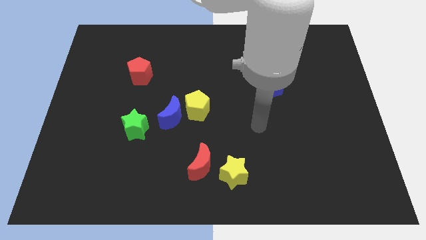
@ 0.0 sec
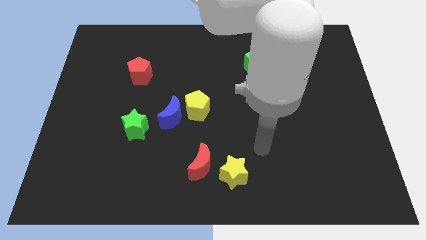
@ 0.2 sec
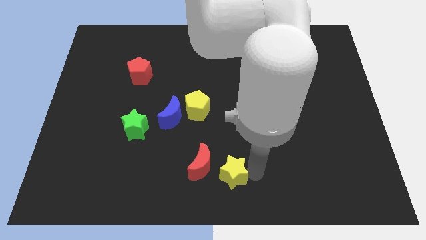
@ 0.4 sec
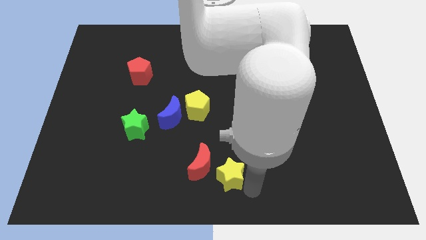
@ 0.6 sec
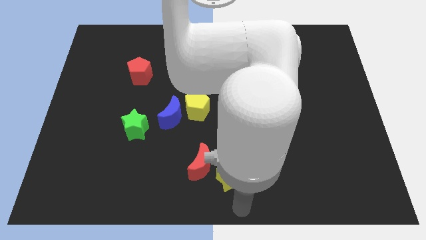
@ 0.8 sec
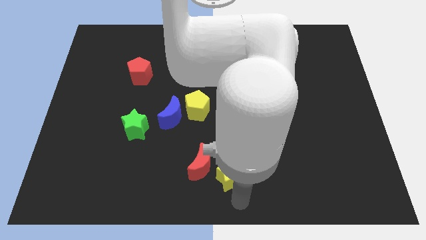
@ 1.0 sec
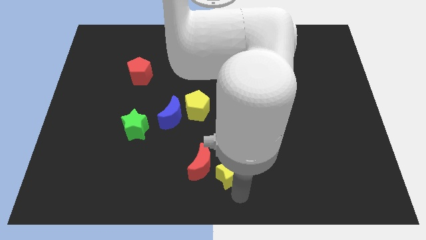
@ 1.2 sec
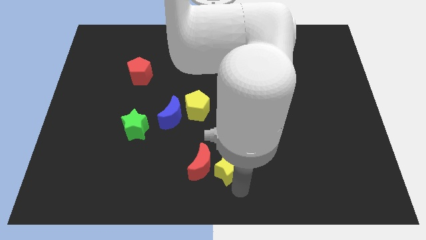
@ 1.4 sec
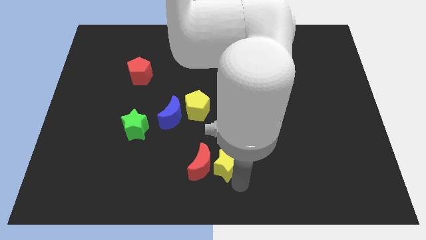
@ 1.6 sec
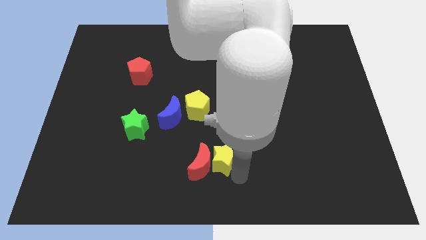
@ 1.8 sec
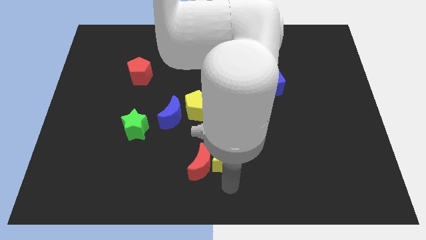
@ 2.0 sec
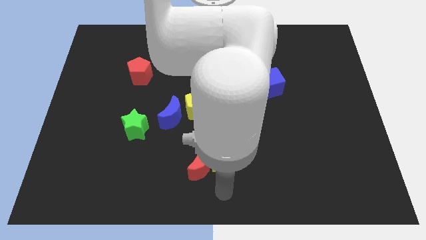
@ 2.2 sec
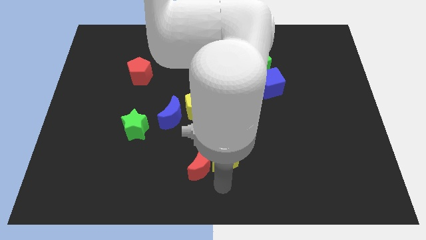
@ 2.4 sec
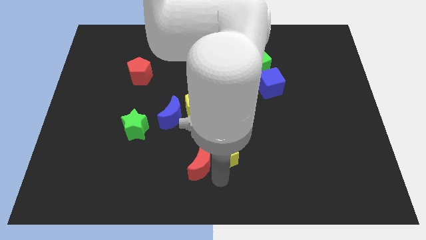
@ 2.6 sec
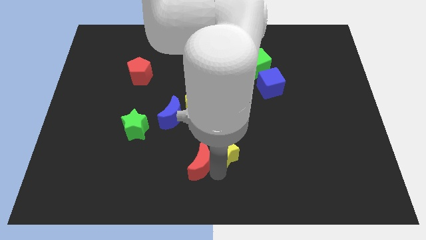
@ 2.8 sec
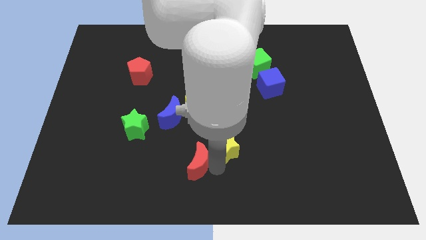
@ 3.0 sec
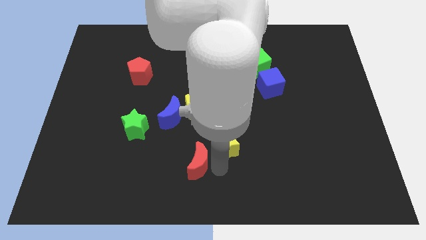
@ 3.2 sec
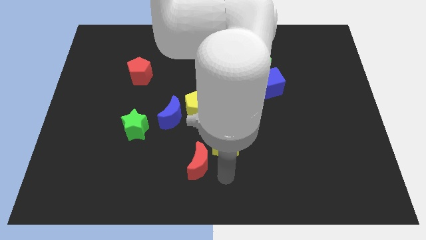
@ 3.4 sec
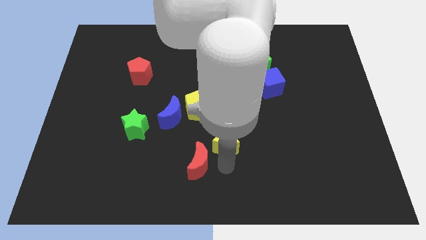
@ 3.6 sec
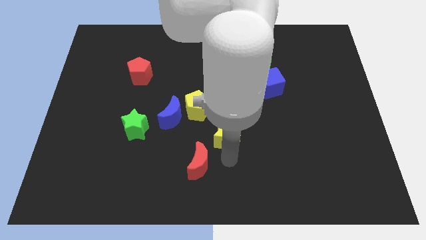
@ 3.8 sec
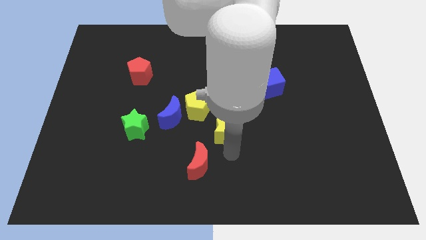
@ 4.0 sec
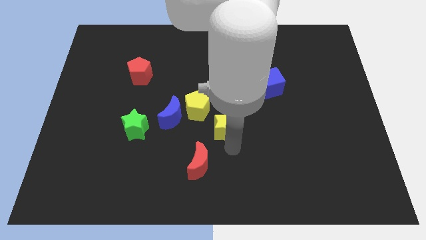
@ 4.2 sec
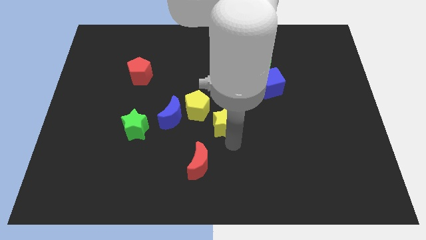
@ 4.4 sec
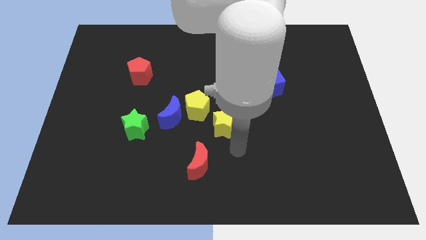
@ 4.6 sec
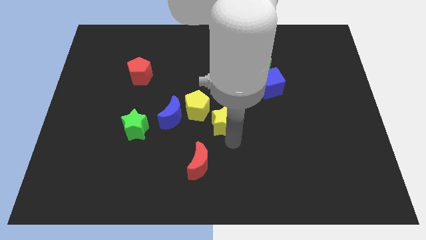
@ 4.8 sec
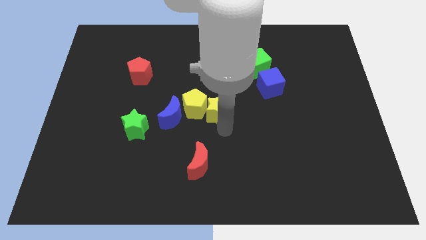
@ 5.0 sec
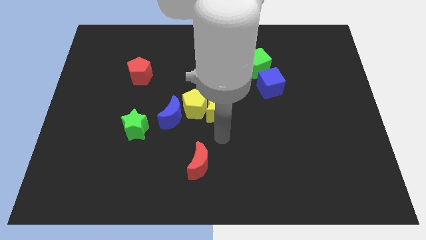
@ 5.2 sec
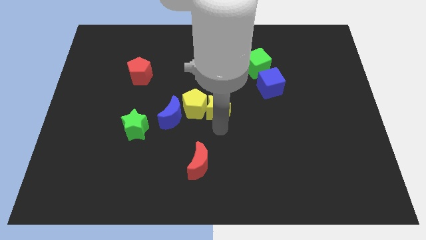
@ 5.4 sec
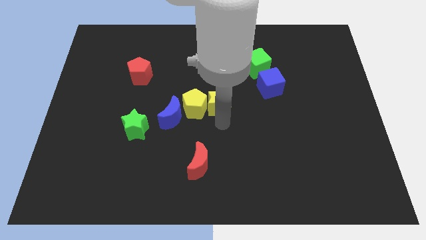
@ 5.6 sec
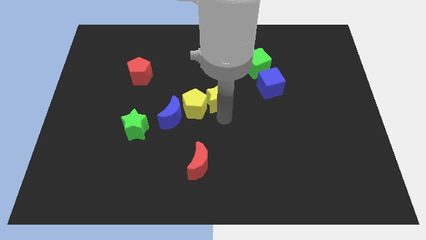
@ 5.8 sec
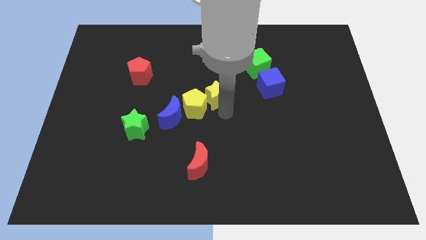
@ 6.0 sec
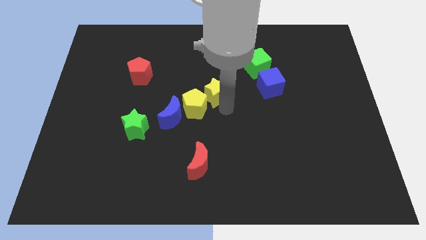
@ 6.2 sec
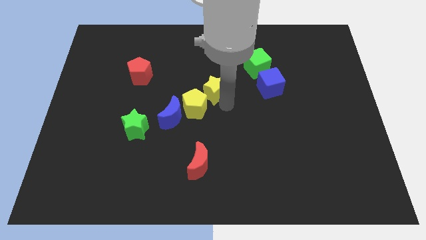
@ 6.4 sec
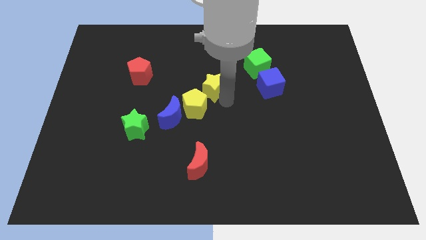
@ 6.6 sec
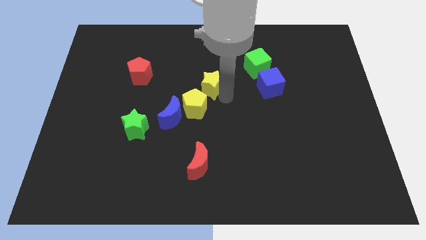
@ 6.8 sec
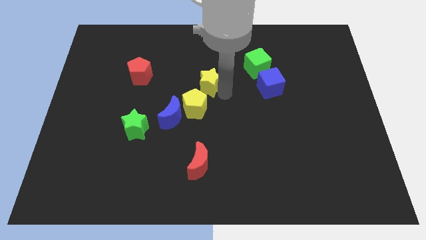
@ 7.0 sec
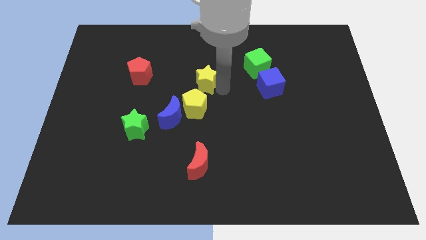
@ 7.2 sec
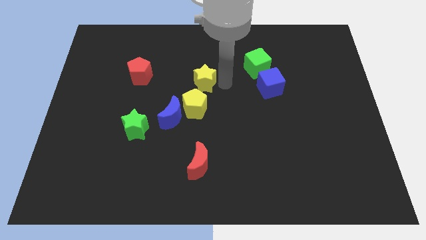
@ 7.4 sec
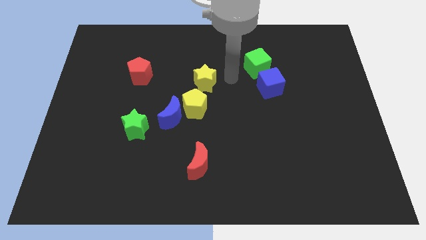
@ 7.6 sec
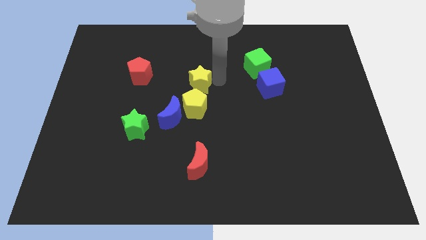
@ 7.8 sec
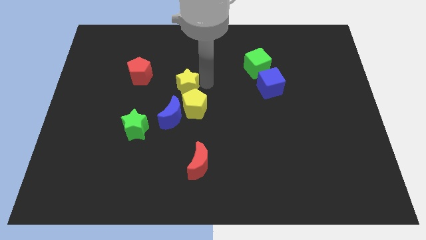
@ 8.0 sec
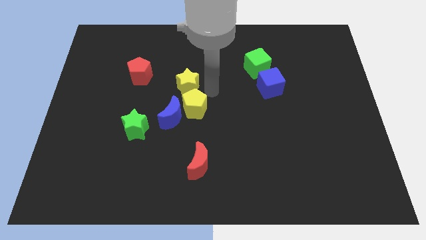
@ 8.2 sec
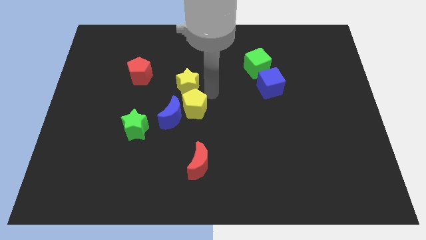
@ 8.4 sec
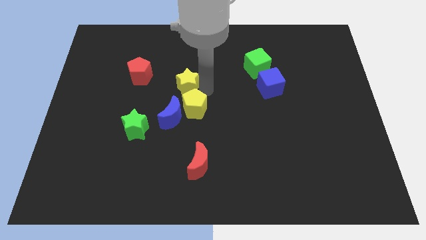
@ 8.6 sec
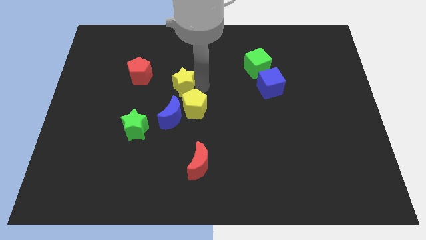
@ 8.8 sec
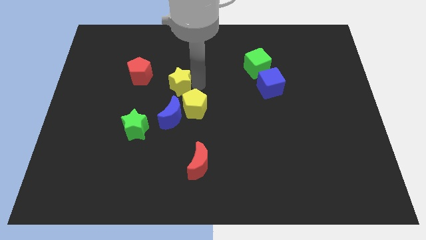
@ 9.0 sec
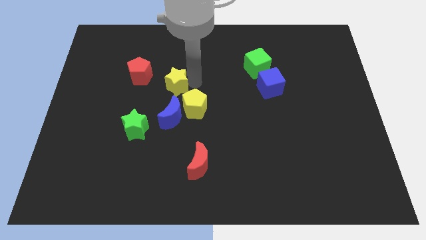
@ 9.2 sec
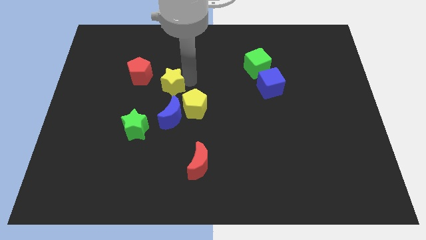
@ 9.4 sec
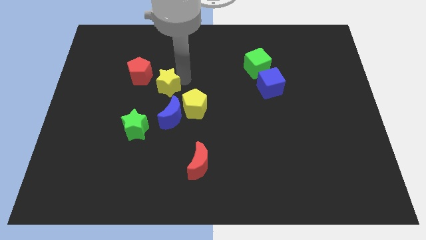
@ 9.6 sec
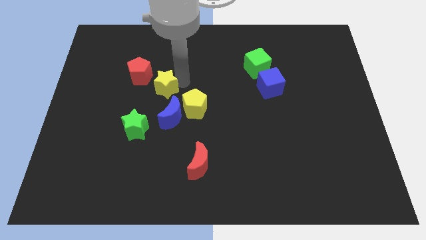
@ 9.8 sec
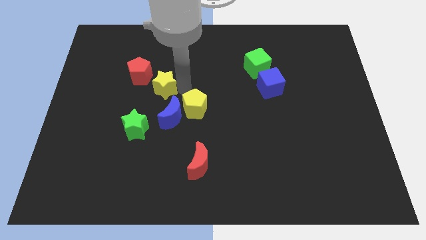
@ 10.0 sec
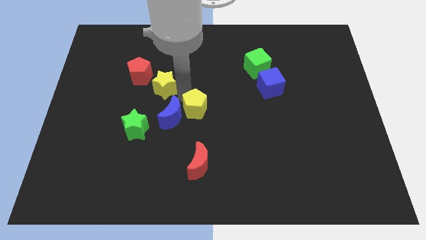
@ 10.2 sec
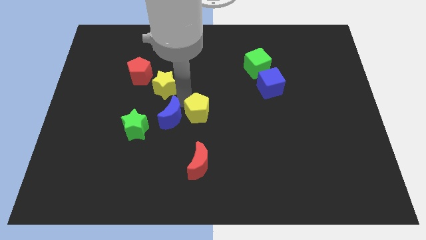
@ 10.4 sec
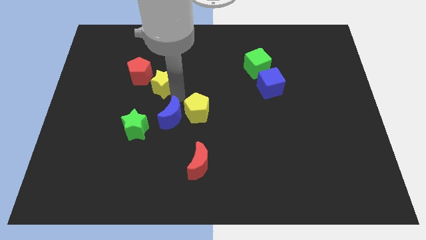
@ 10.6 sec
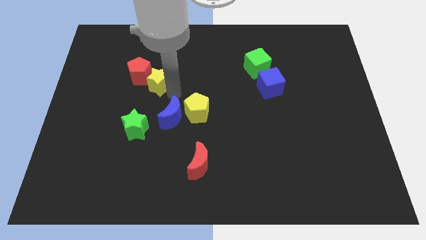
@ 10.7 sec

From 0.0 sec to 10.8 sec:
put the yellow star next to the red pentagon

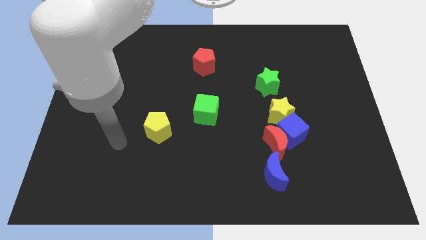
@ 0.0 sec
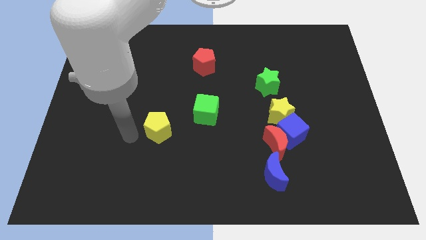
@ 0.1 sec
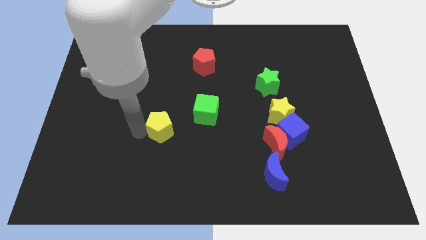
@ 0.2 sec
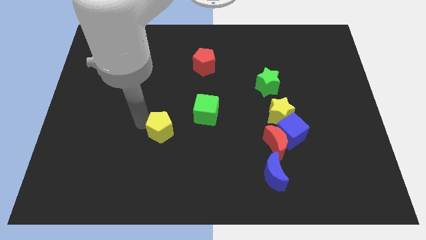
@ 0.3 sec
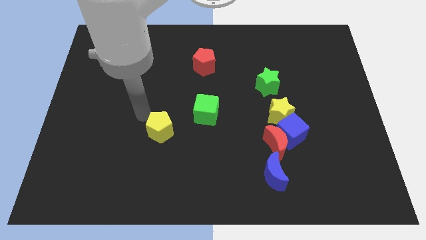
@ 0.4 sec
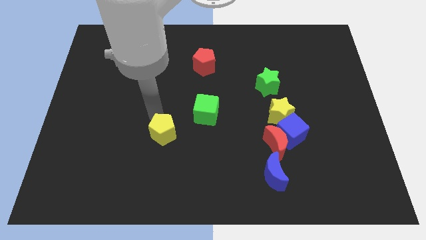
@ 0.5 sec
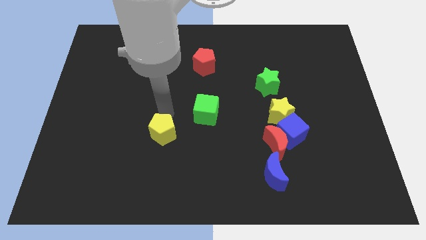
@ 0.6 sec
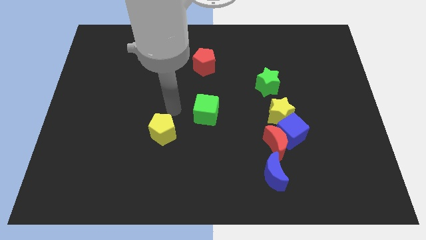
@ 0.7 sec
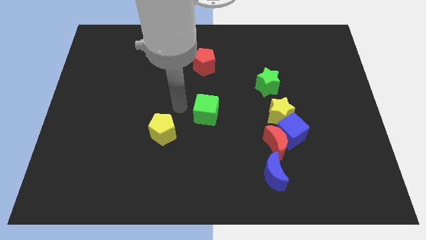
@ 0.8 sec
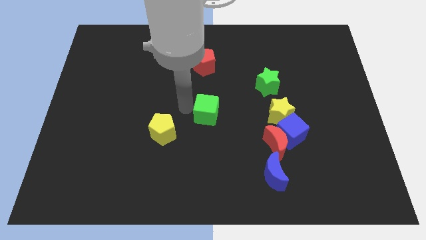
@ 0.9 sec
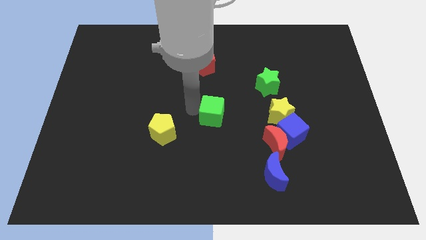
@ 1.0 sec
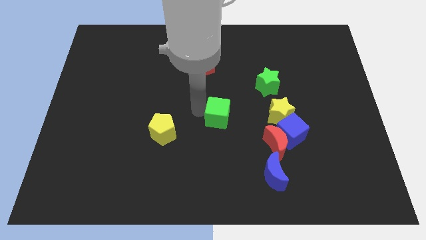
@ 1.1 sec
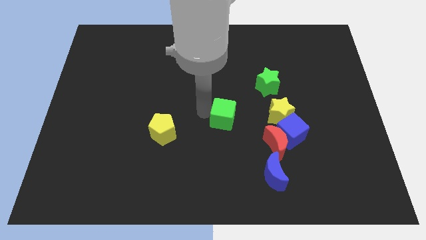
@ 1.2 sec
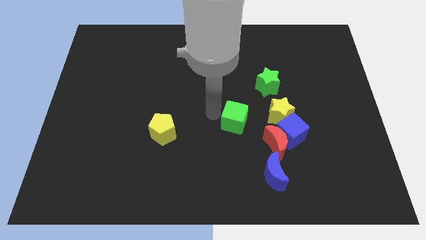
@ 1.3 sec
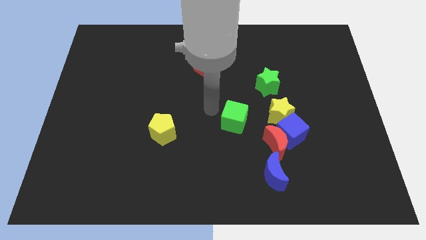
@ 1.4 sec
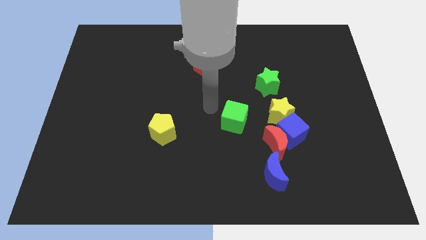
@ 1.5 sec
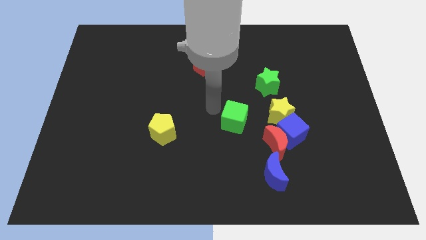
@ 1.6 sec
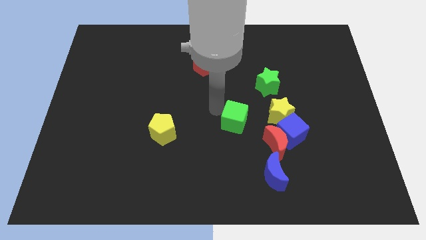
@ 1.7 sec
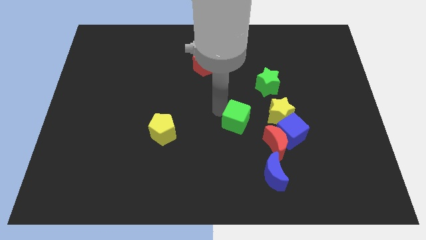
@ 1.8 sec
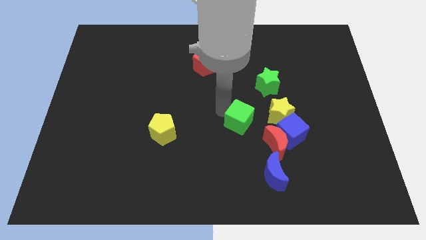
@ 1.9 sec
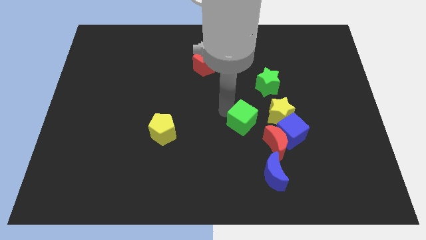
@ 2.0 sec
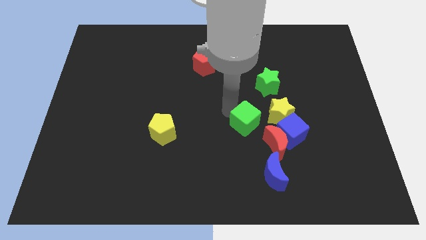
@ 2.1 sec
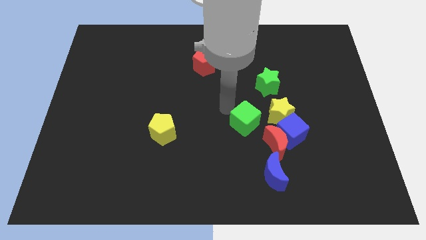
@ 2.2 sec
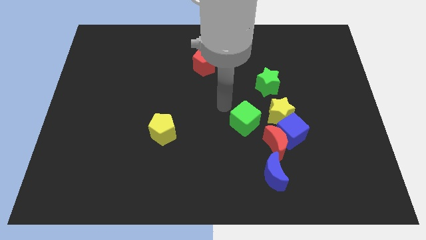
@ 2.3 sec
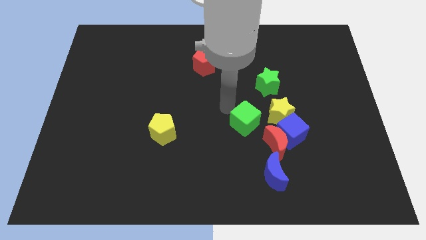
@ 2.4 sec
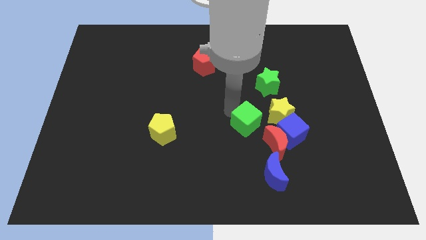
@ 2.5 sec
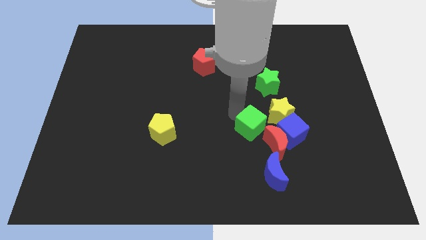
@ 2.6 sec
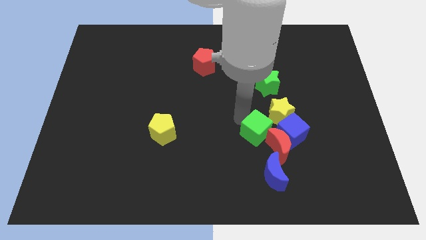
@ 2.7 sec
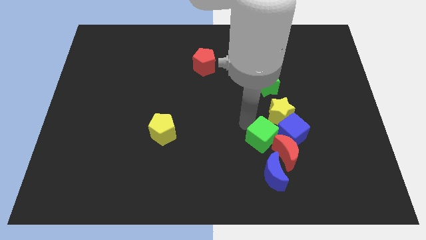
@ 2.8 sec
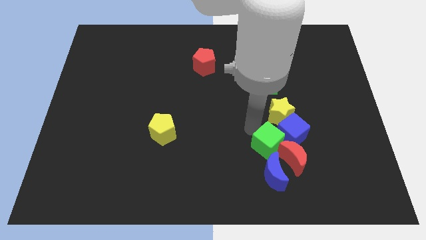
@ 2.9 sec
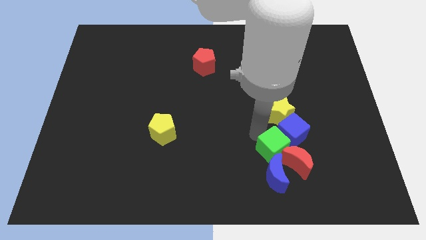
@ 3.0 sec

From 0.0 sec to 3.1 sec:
slide the green cube to the red moon
